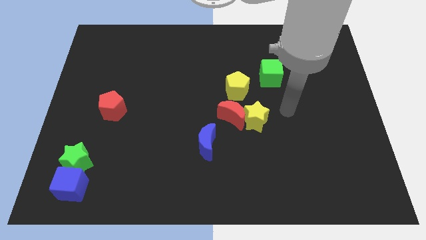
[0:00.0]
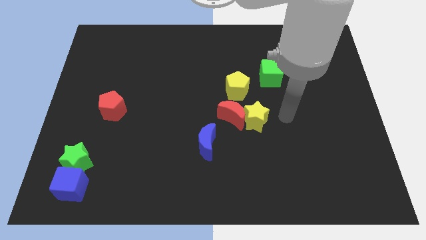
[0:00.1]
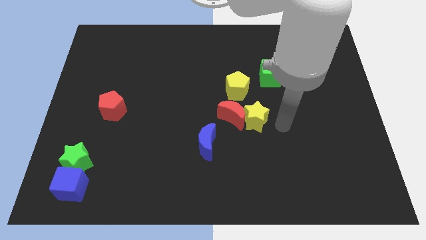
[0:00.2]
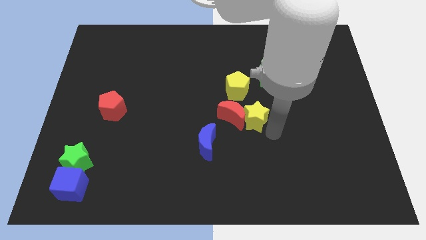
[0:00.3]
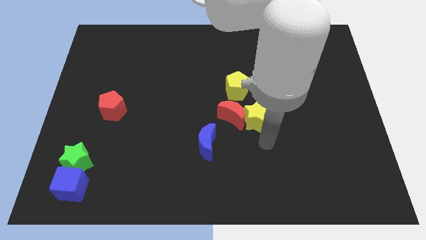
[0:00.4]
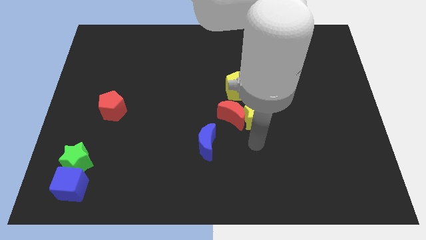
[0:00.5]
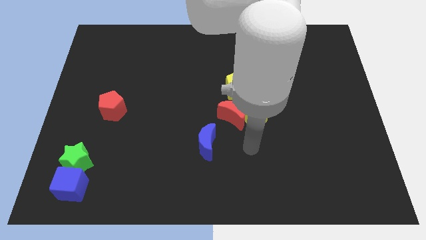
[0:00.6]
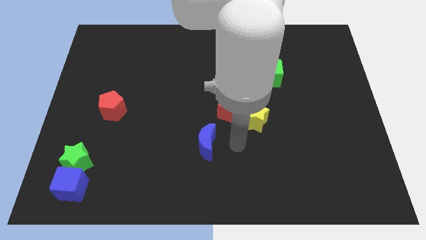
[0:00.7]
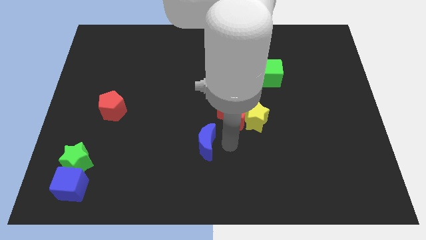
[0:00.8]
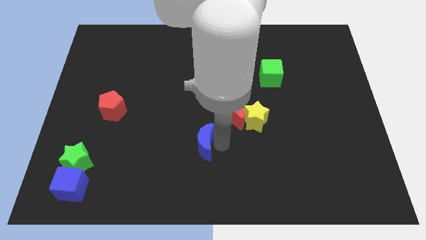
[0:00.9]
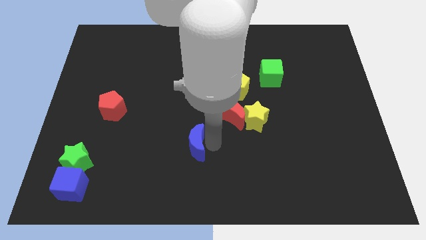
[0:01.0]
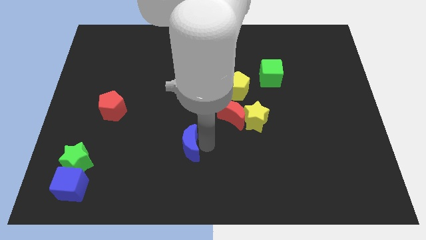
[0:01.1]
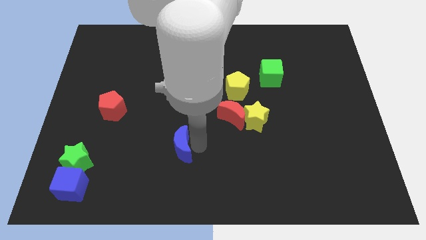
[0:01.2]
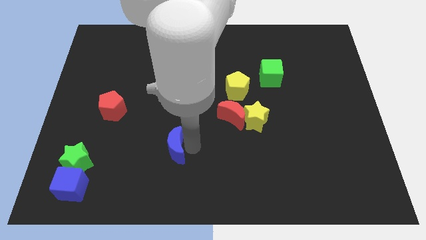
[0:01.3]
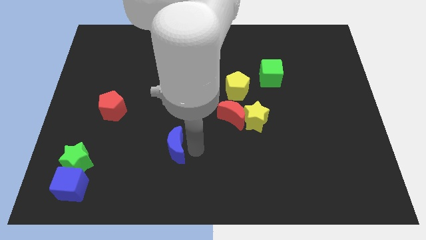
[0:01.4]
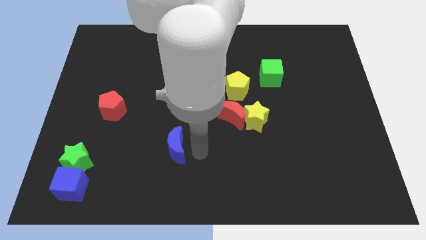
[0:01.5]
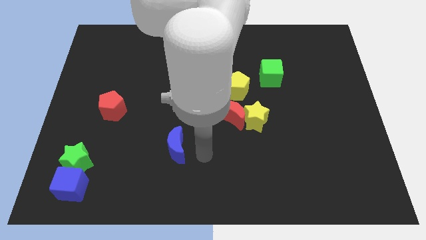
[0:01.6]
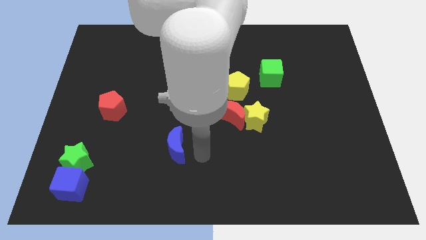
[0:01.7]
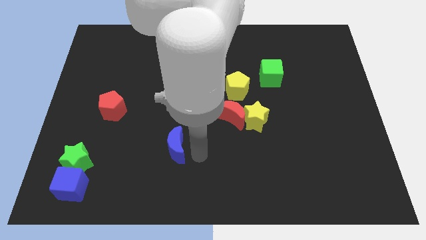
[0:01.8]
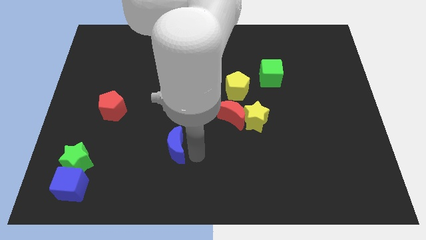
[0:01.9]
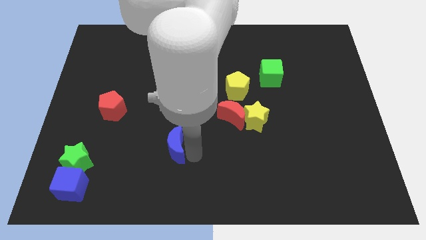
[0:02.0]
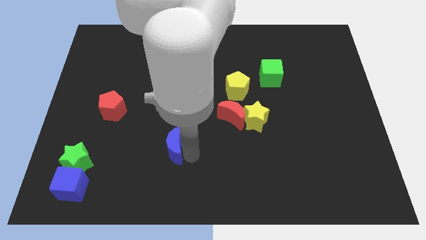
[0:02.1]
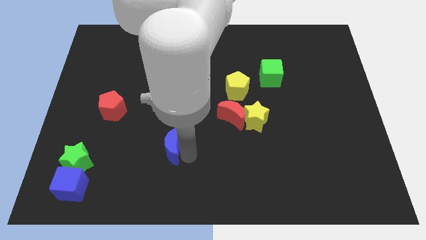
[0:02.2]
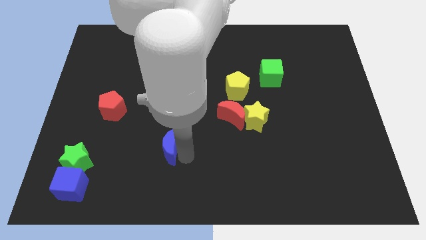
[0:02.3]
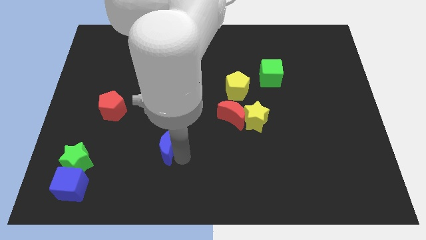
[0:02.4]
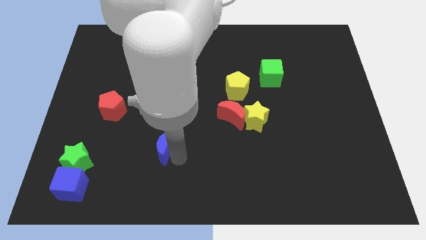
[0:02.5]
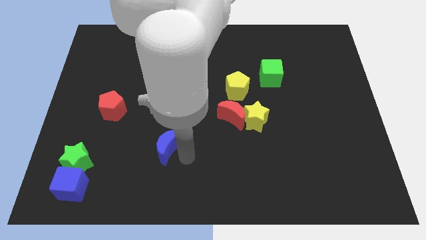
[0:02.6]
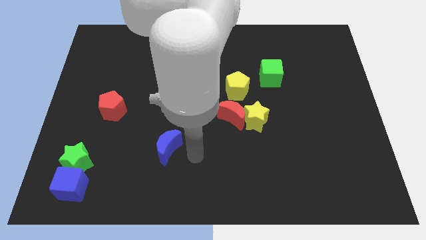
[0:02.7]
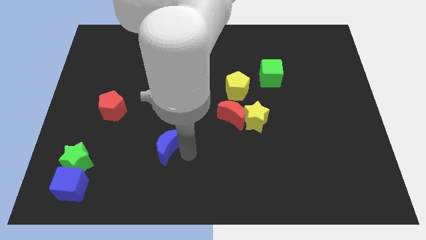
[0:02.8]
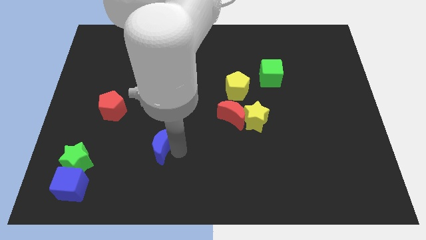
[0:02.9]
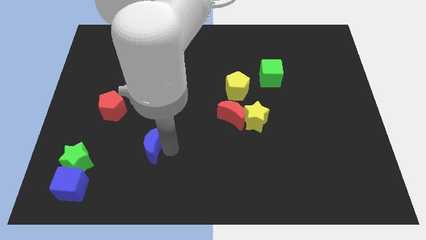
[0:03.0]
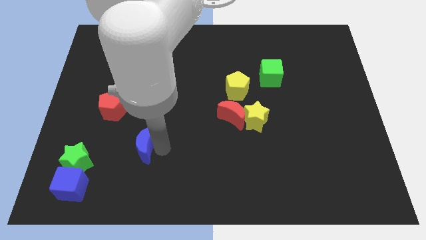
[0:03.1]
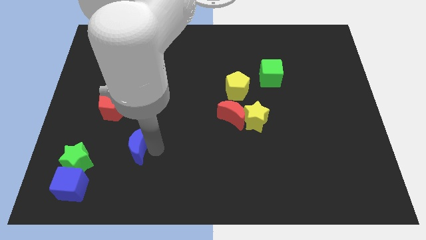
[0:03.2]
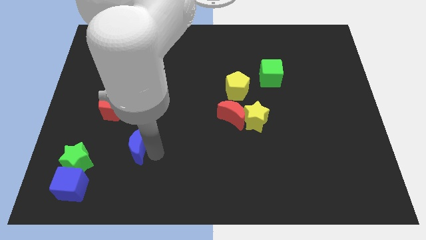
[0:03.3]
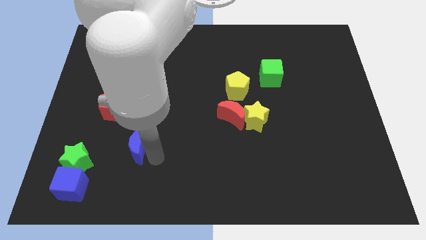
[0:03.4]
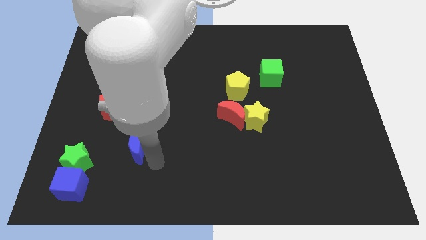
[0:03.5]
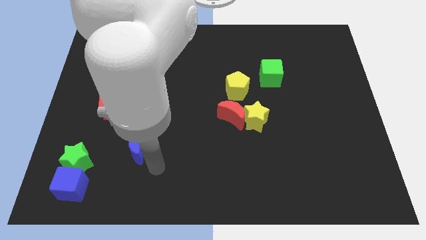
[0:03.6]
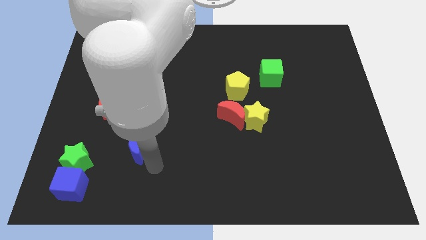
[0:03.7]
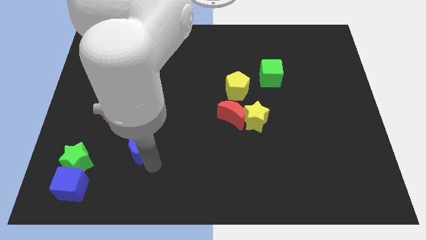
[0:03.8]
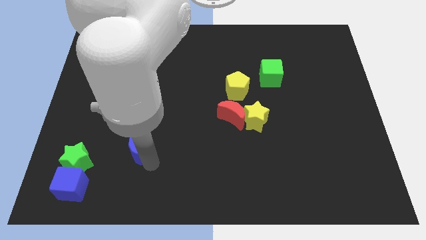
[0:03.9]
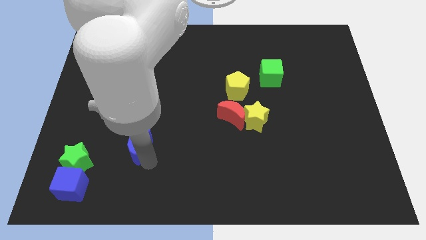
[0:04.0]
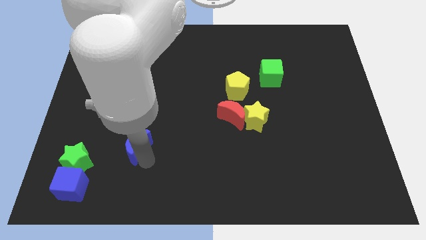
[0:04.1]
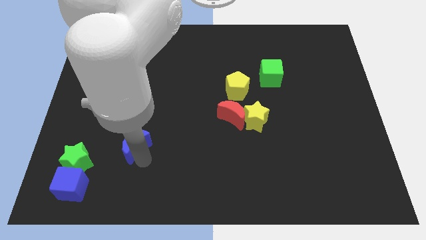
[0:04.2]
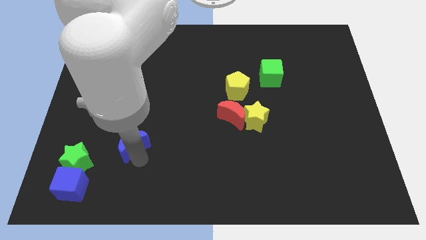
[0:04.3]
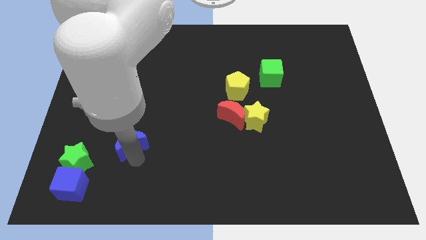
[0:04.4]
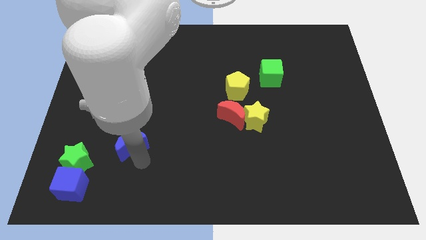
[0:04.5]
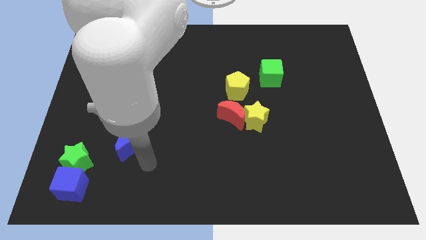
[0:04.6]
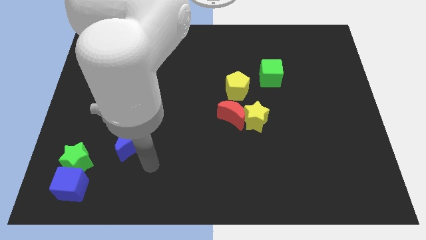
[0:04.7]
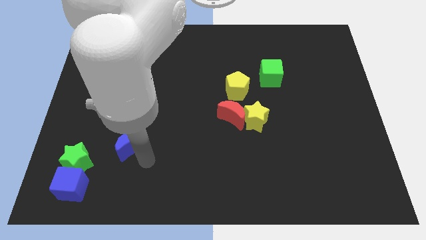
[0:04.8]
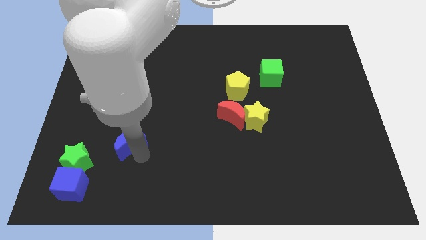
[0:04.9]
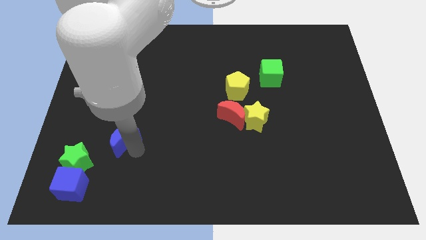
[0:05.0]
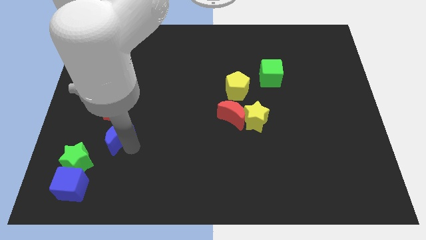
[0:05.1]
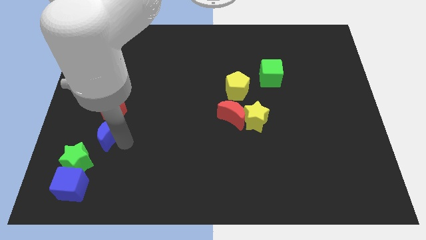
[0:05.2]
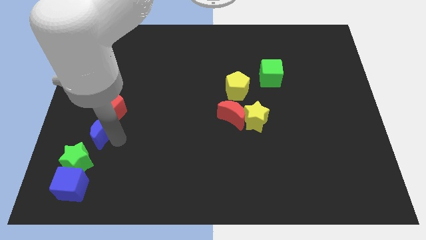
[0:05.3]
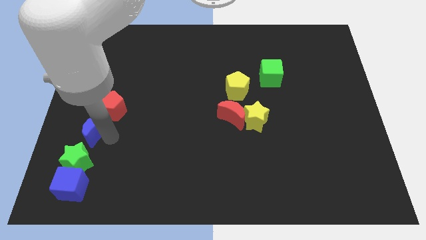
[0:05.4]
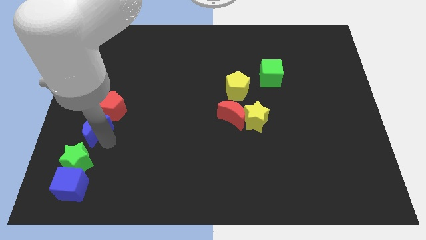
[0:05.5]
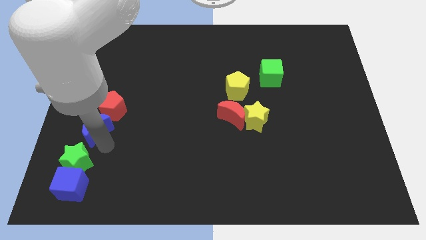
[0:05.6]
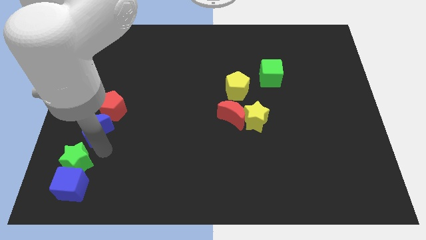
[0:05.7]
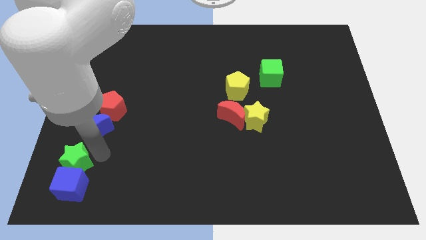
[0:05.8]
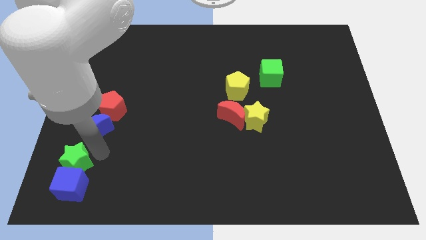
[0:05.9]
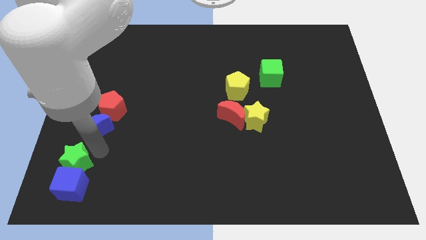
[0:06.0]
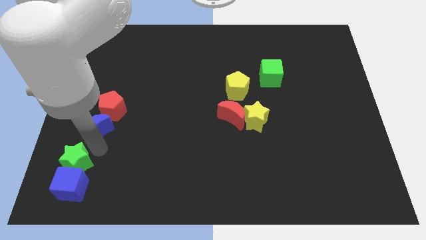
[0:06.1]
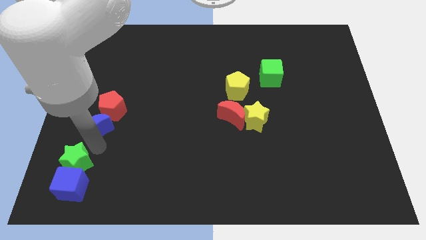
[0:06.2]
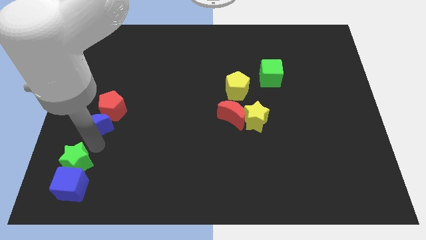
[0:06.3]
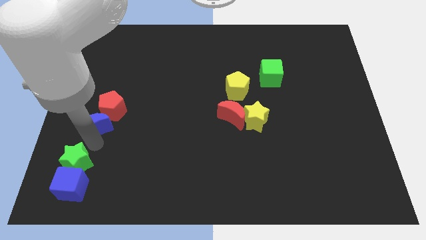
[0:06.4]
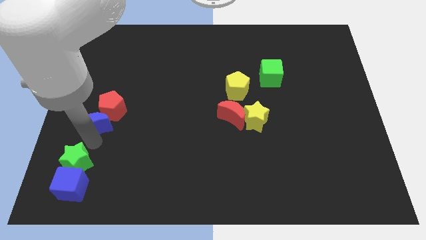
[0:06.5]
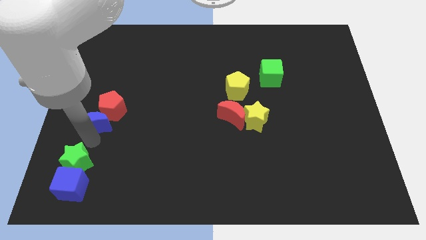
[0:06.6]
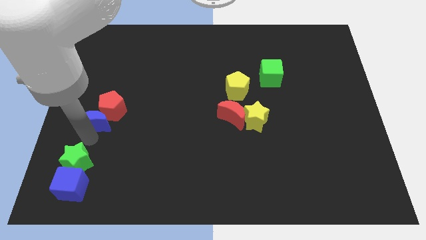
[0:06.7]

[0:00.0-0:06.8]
move the blue moon to the center left

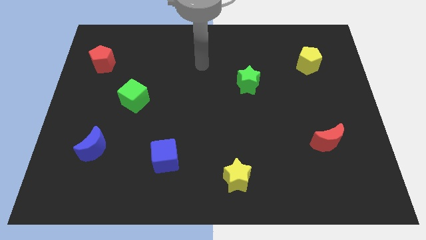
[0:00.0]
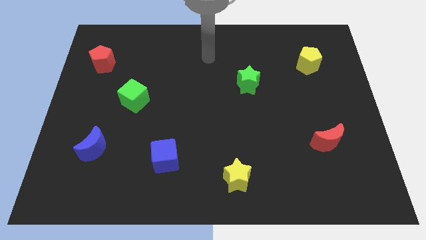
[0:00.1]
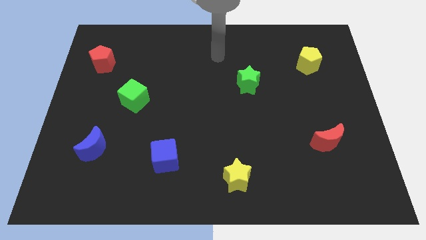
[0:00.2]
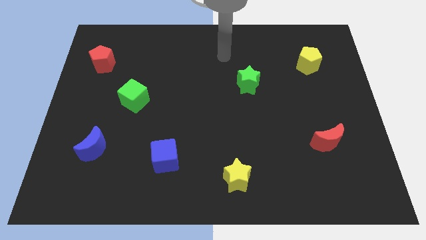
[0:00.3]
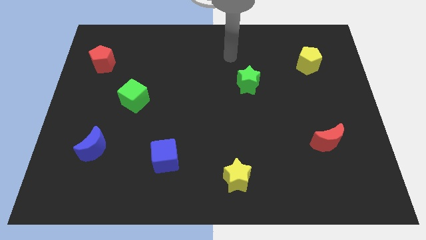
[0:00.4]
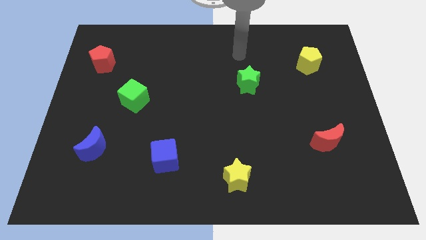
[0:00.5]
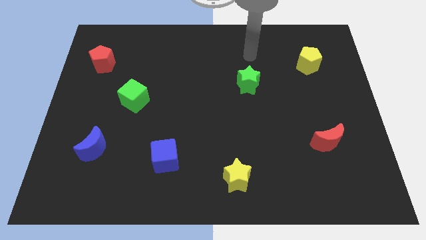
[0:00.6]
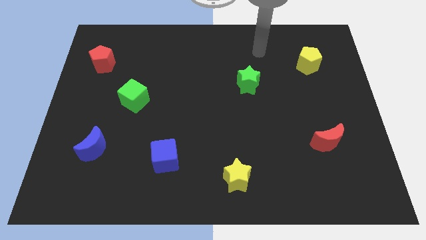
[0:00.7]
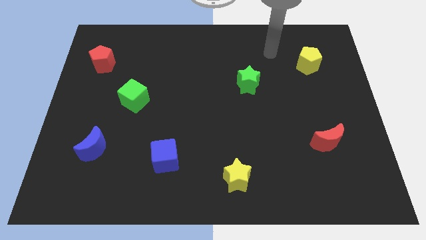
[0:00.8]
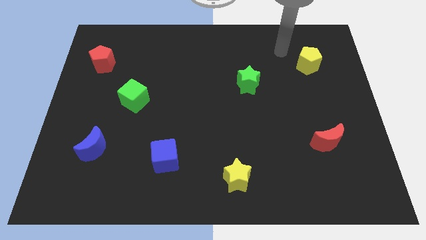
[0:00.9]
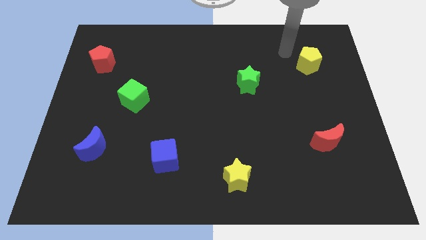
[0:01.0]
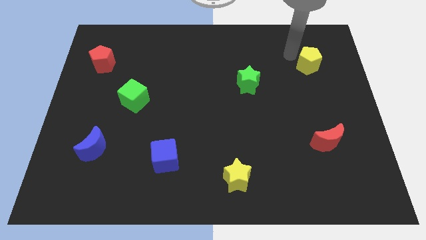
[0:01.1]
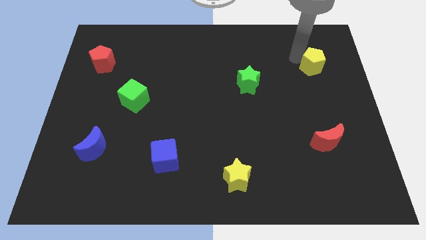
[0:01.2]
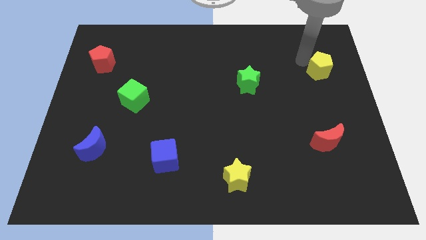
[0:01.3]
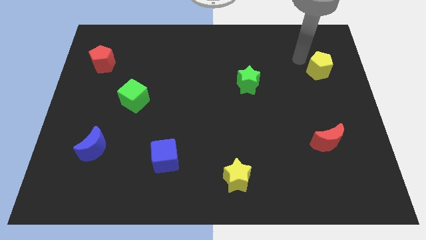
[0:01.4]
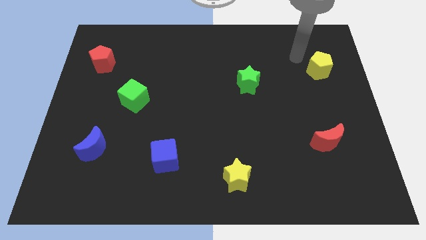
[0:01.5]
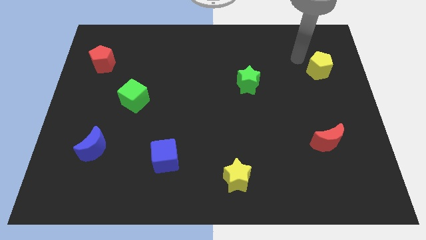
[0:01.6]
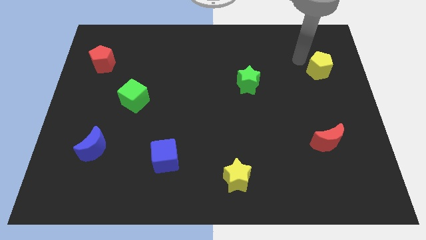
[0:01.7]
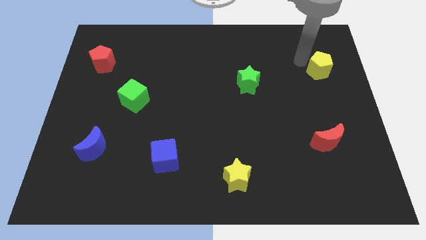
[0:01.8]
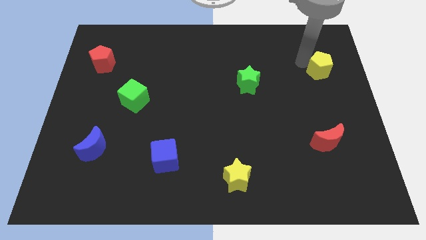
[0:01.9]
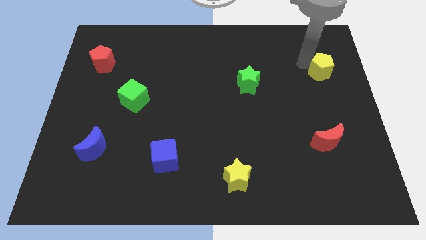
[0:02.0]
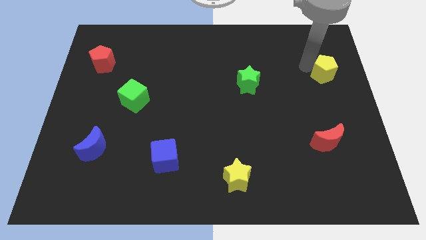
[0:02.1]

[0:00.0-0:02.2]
slide the yellow pentagon to the right side of the board
